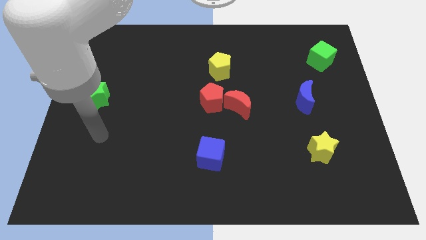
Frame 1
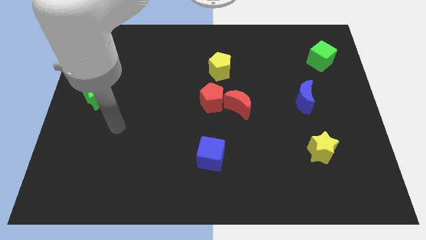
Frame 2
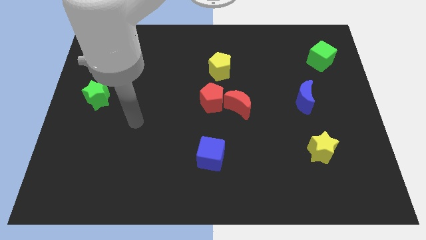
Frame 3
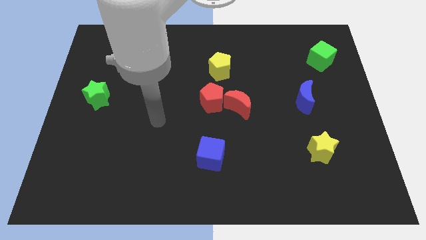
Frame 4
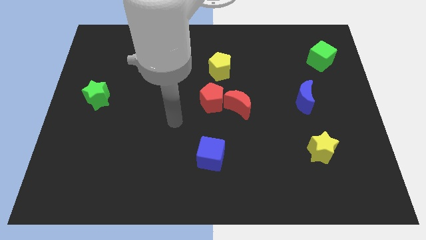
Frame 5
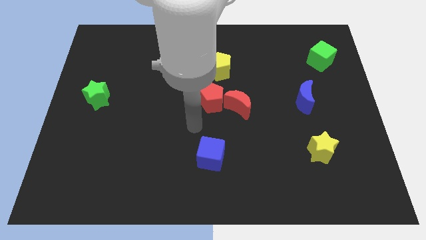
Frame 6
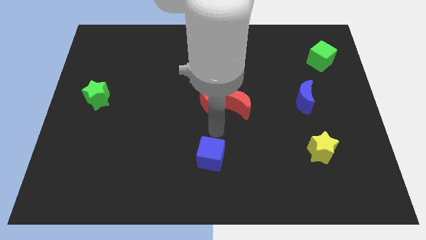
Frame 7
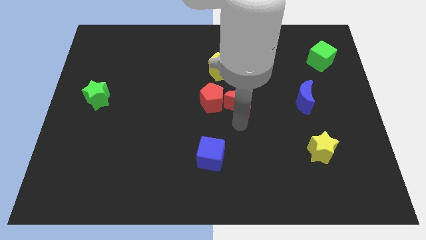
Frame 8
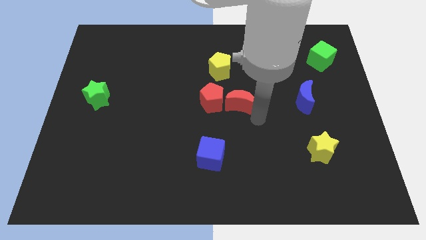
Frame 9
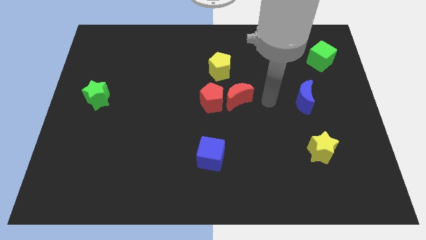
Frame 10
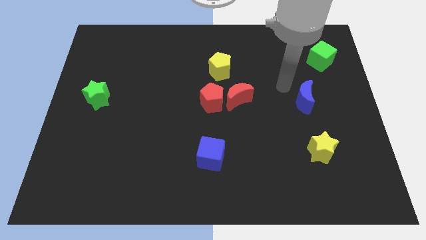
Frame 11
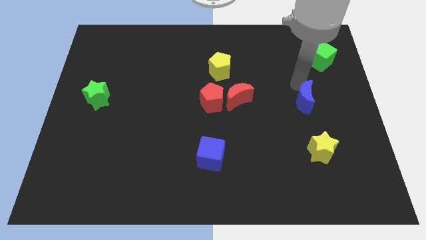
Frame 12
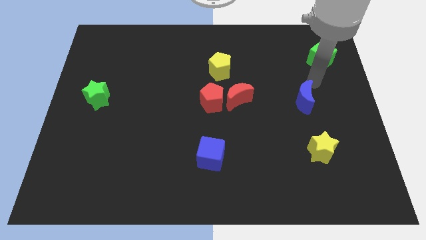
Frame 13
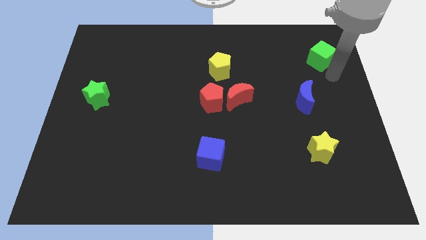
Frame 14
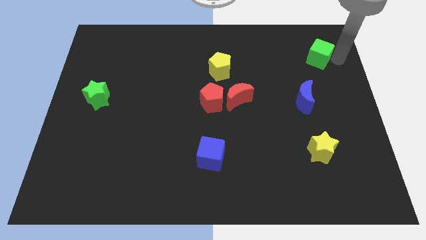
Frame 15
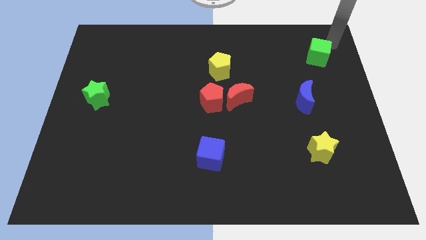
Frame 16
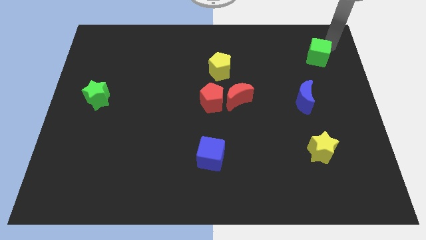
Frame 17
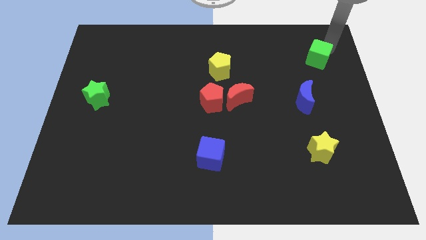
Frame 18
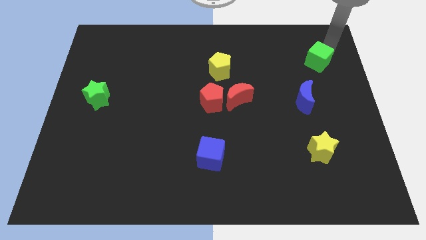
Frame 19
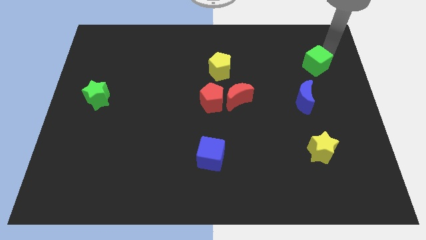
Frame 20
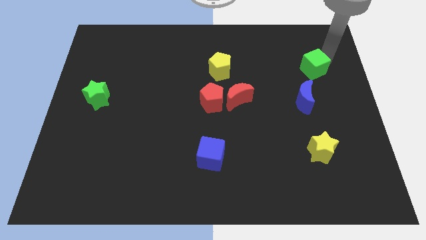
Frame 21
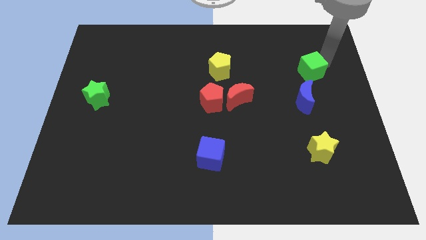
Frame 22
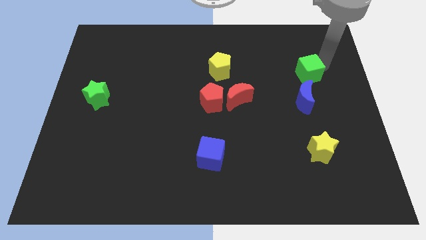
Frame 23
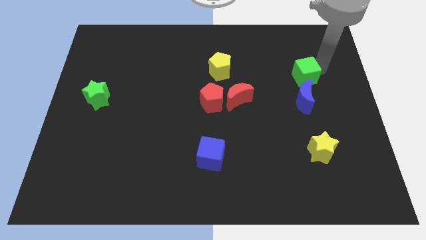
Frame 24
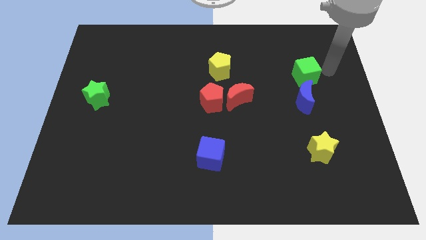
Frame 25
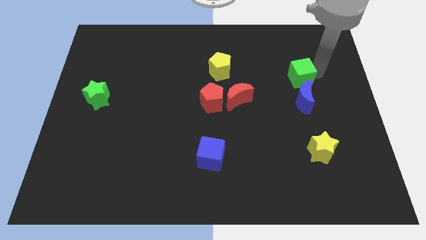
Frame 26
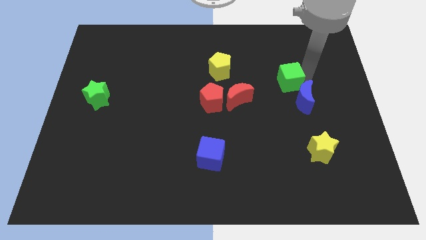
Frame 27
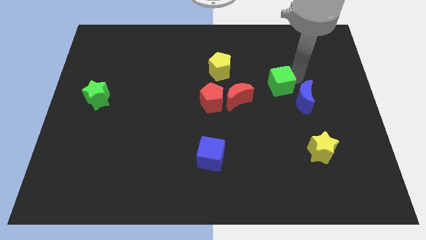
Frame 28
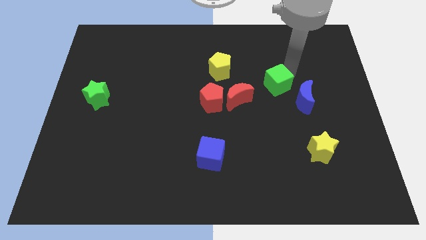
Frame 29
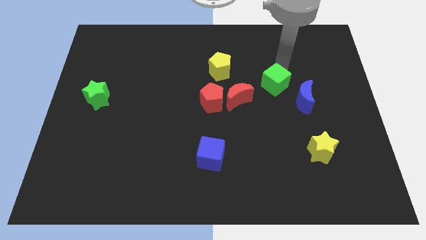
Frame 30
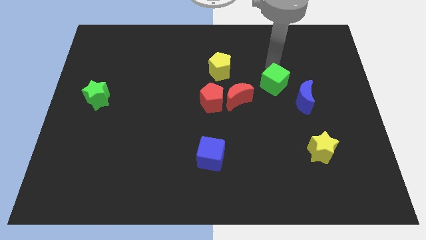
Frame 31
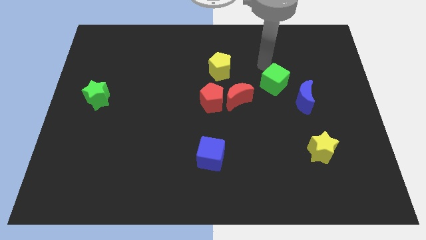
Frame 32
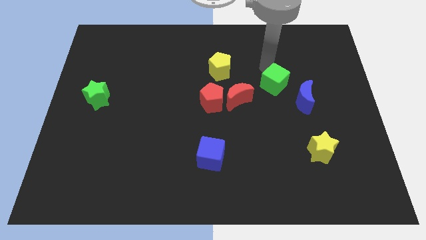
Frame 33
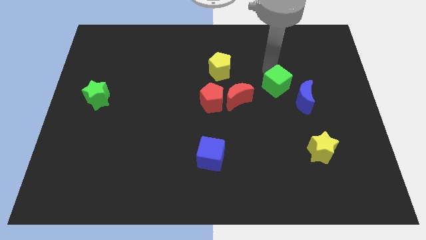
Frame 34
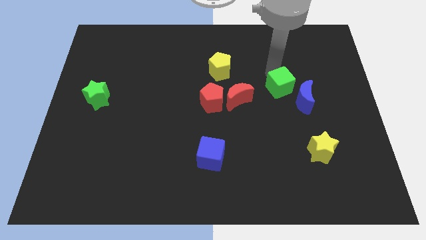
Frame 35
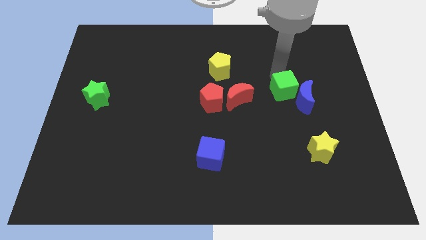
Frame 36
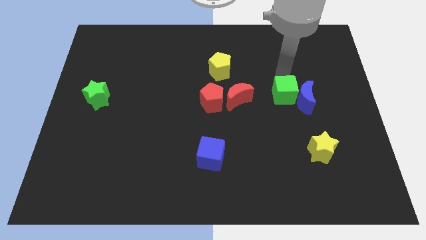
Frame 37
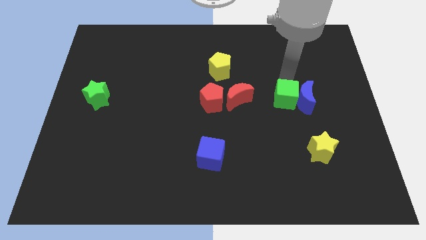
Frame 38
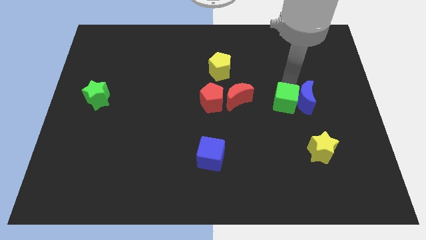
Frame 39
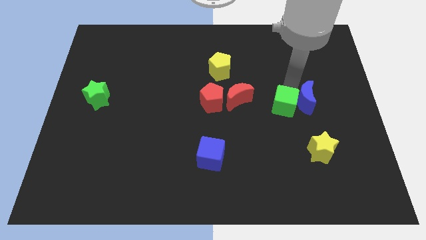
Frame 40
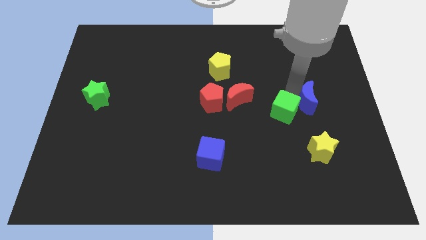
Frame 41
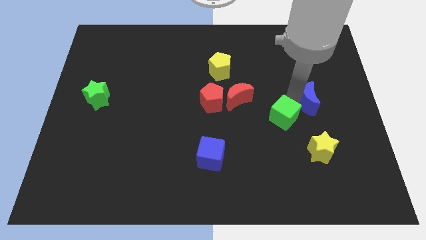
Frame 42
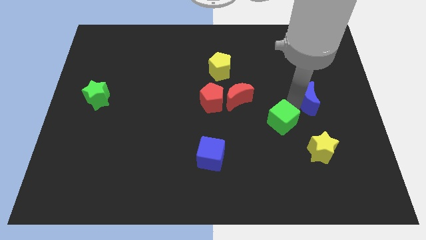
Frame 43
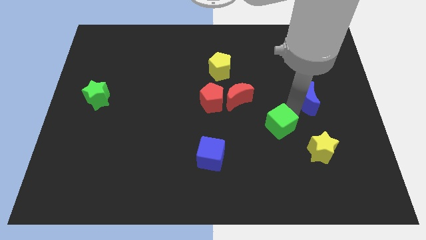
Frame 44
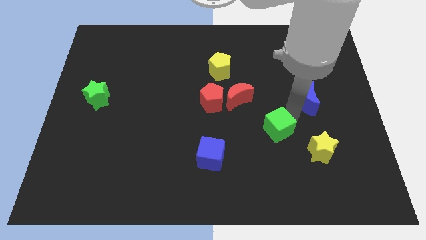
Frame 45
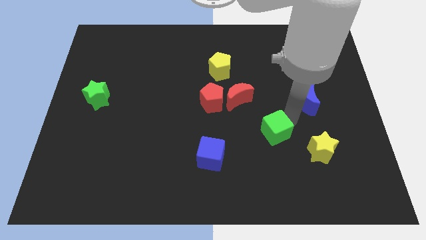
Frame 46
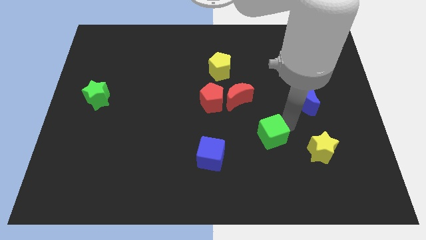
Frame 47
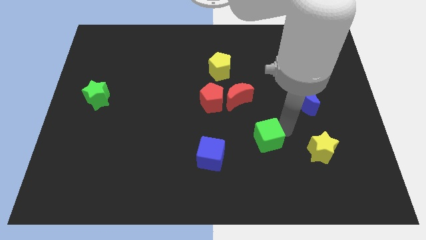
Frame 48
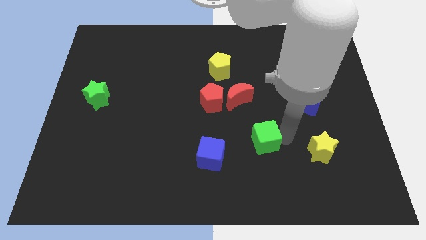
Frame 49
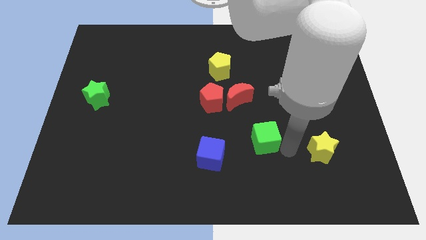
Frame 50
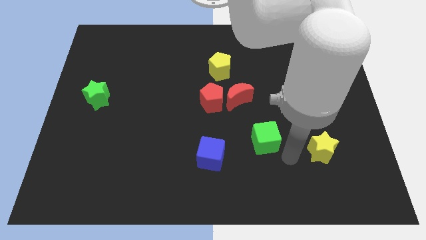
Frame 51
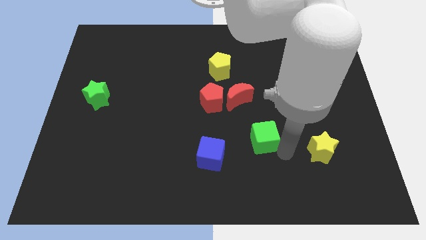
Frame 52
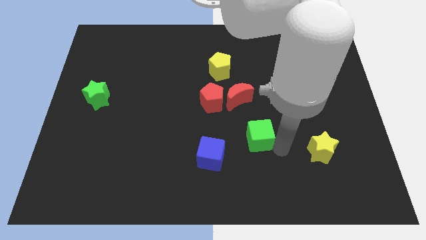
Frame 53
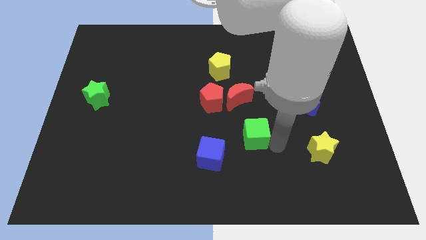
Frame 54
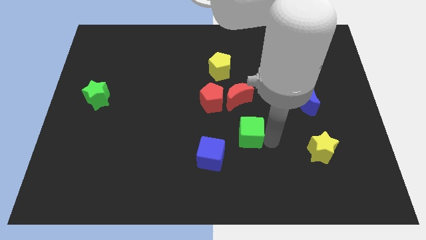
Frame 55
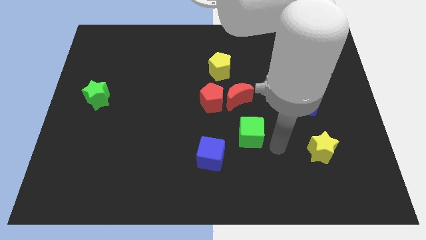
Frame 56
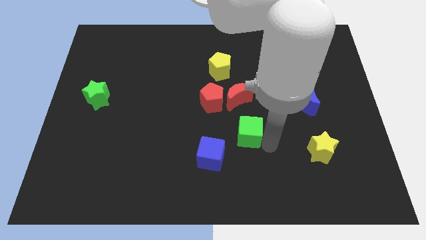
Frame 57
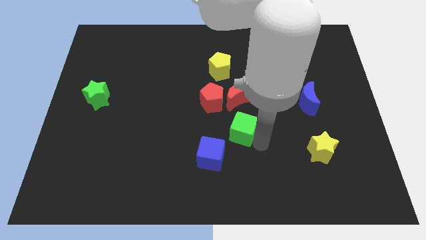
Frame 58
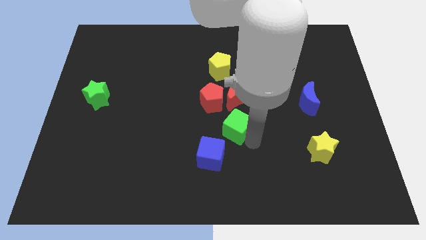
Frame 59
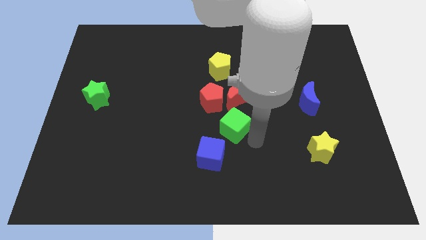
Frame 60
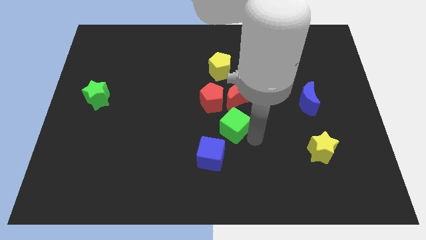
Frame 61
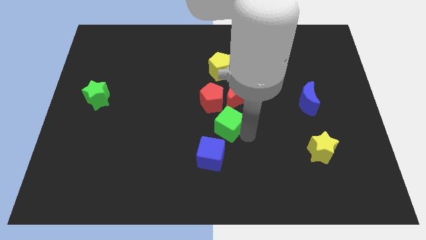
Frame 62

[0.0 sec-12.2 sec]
move the green cube to the top side of the blue cube
